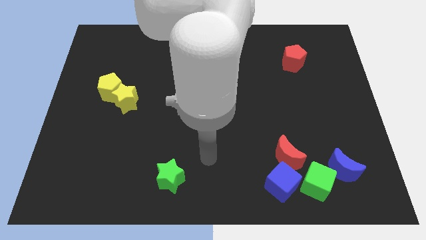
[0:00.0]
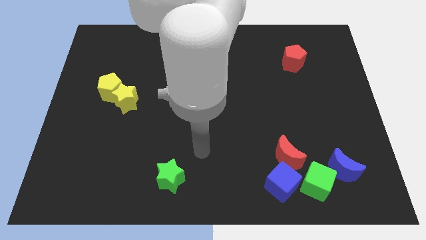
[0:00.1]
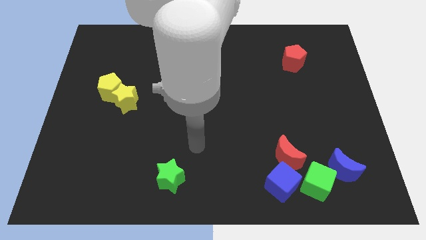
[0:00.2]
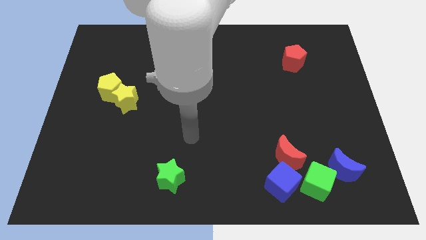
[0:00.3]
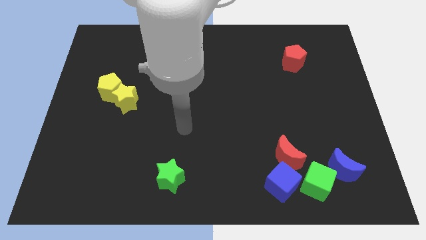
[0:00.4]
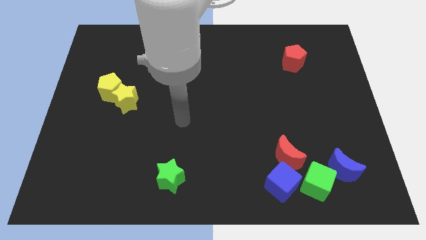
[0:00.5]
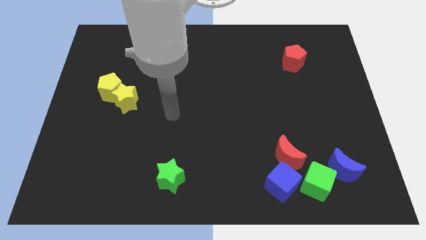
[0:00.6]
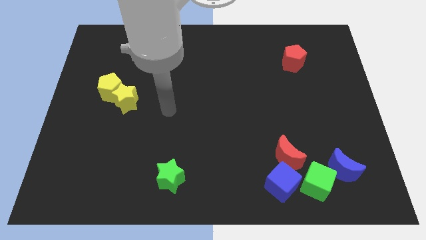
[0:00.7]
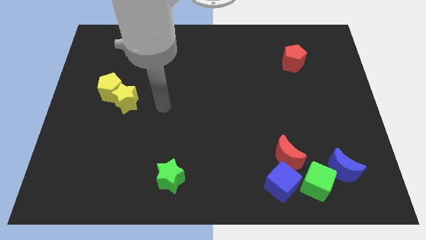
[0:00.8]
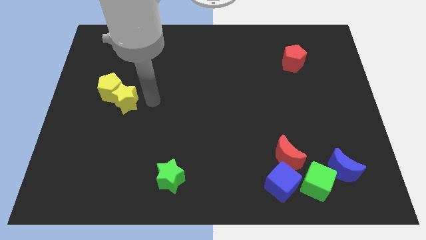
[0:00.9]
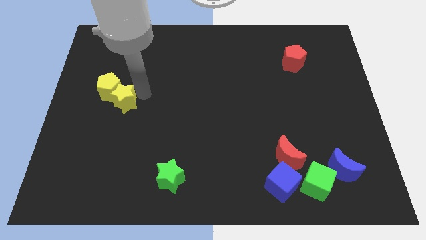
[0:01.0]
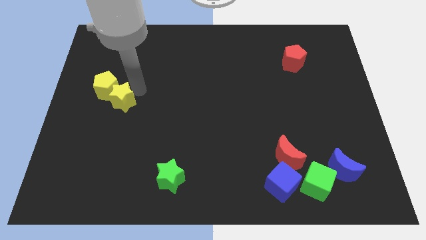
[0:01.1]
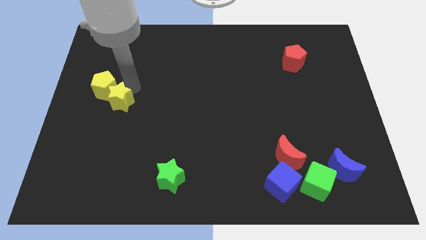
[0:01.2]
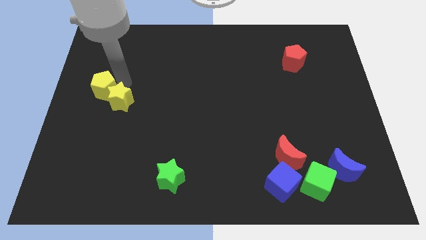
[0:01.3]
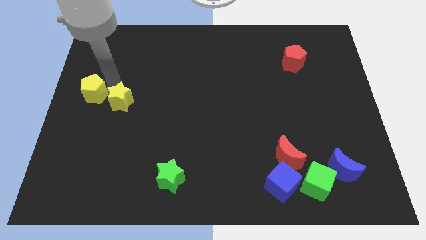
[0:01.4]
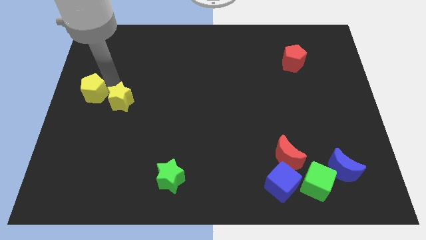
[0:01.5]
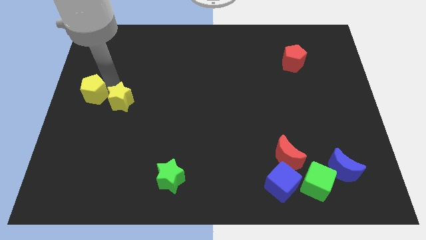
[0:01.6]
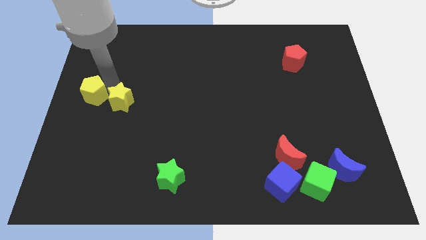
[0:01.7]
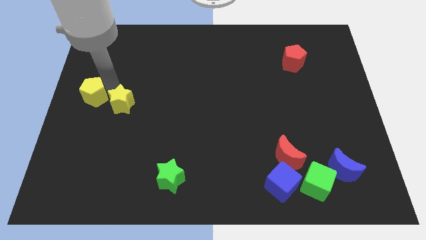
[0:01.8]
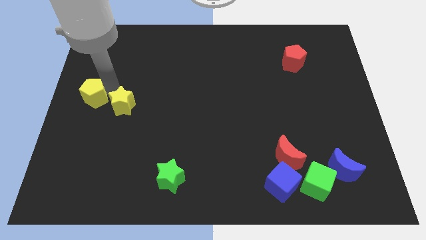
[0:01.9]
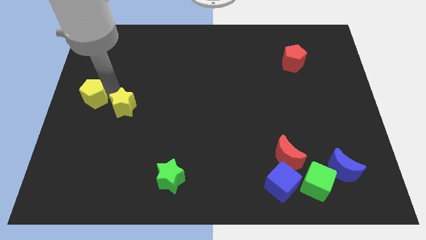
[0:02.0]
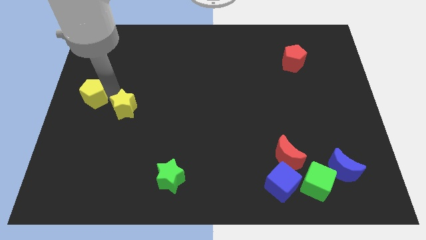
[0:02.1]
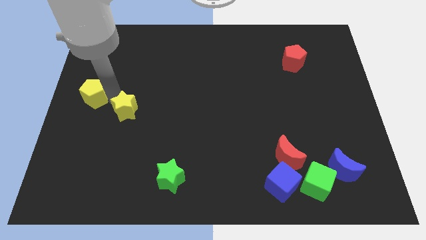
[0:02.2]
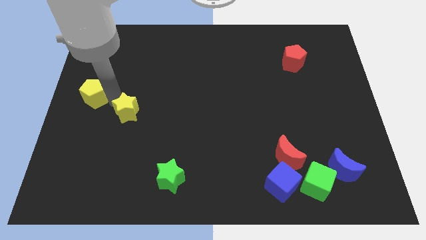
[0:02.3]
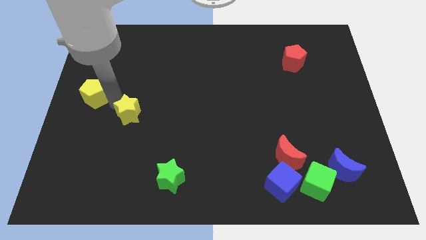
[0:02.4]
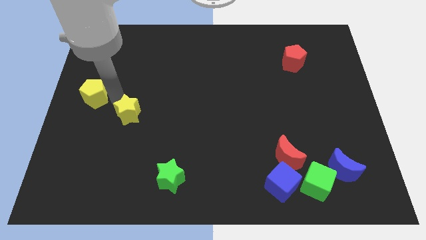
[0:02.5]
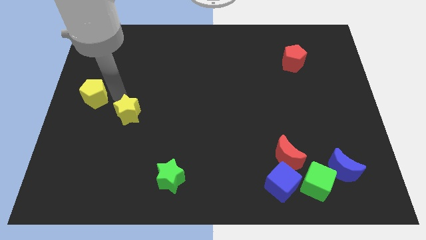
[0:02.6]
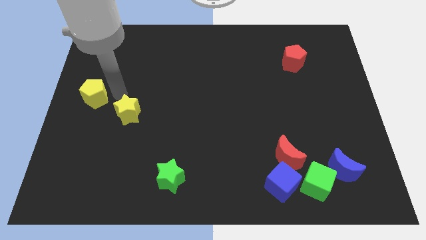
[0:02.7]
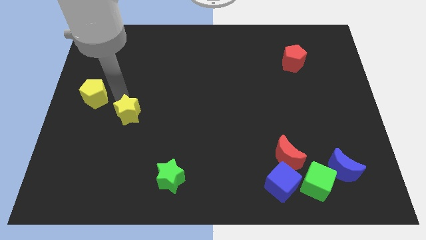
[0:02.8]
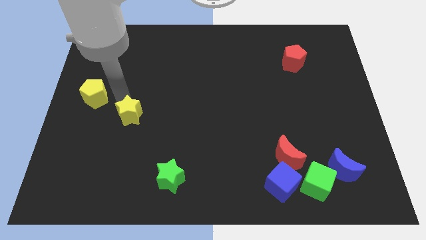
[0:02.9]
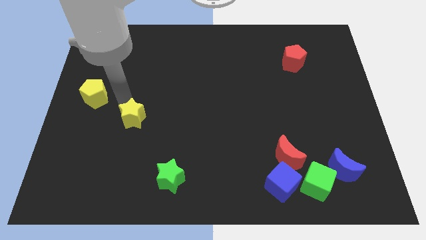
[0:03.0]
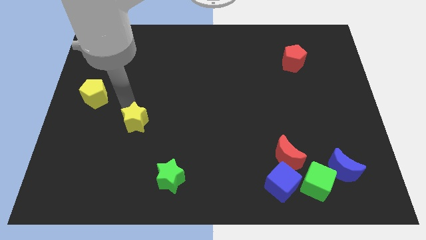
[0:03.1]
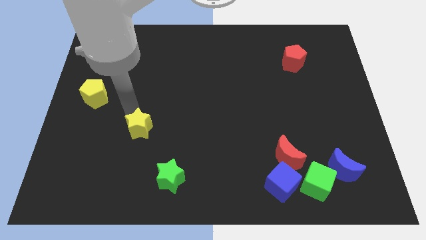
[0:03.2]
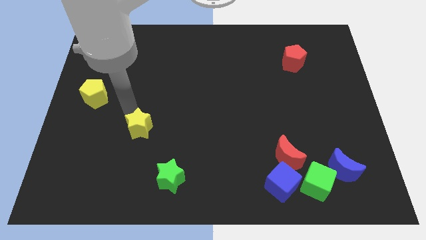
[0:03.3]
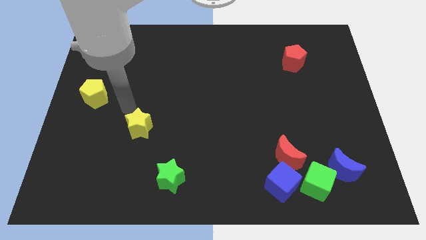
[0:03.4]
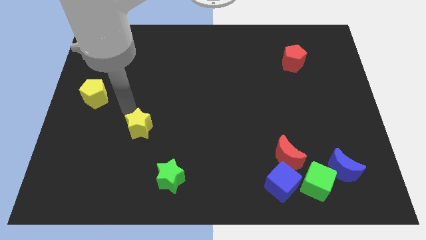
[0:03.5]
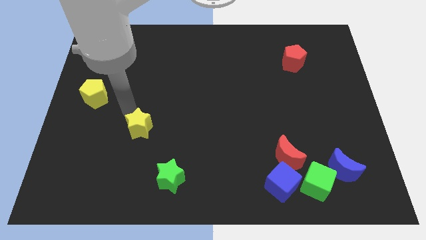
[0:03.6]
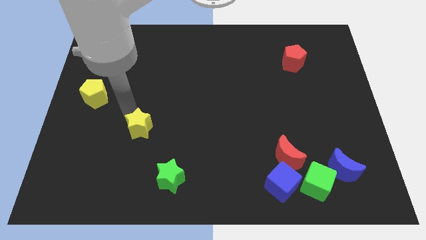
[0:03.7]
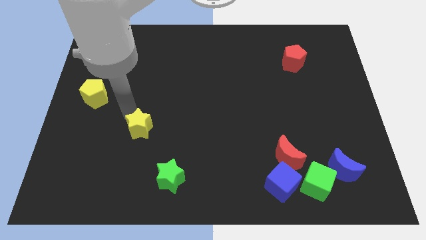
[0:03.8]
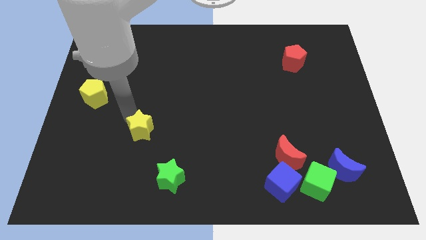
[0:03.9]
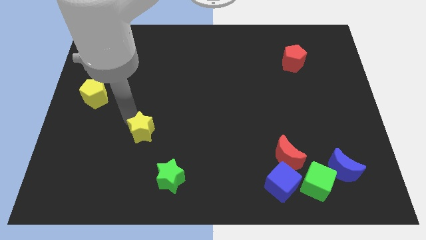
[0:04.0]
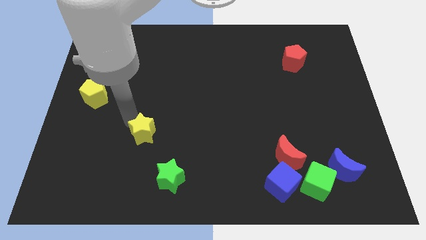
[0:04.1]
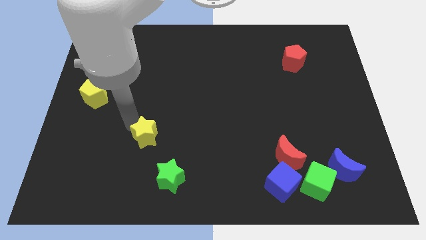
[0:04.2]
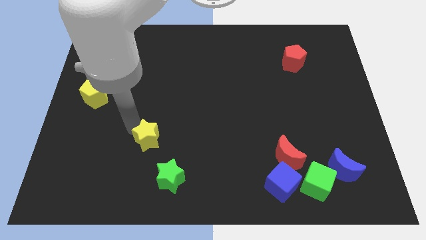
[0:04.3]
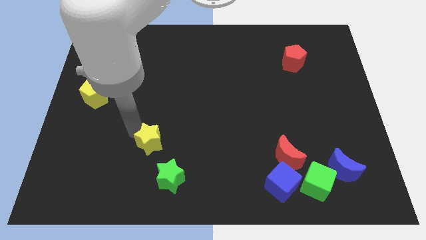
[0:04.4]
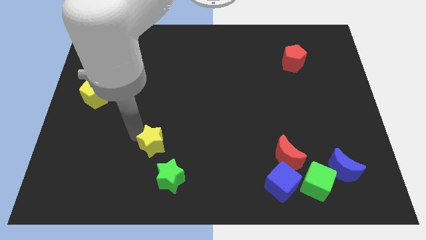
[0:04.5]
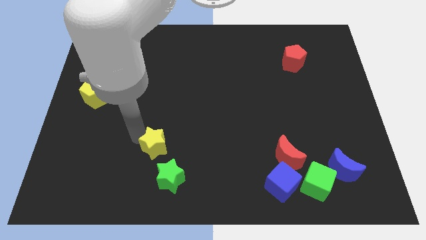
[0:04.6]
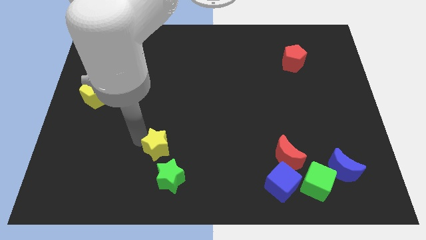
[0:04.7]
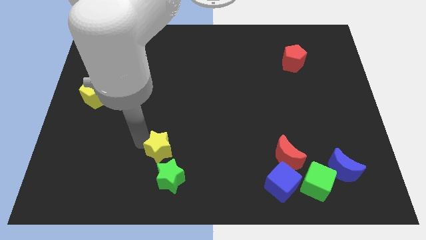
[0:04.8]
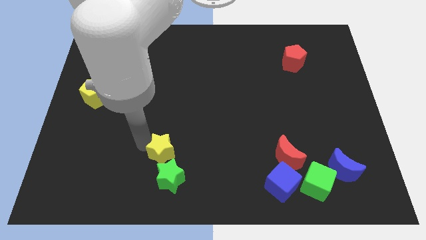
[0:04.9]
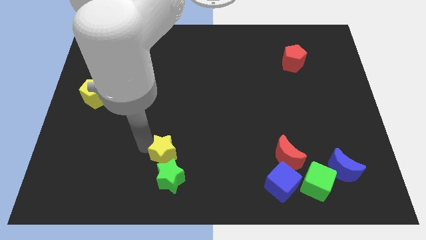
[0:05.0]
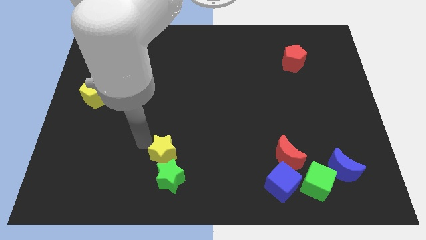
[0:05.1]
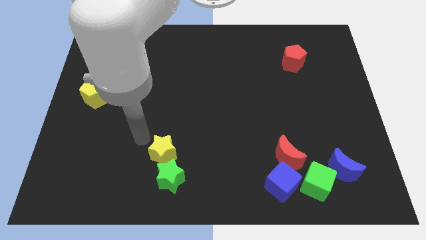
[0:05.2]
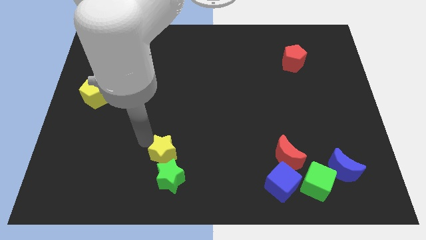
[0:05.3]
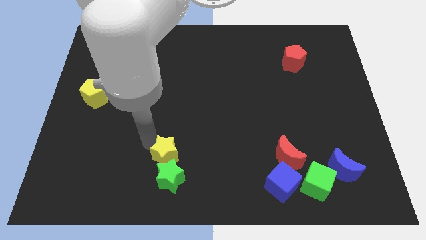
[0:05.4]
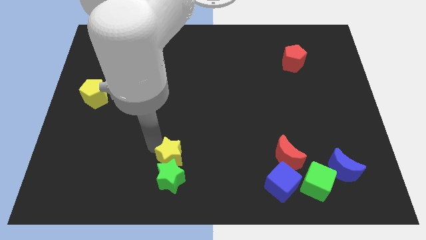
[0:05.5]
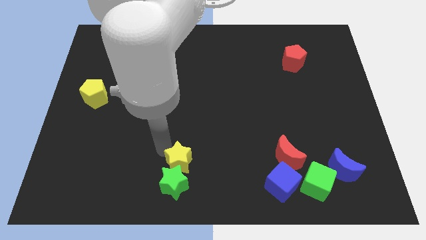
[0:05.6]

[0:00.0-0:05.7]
move the yellow star to the bottom

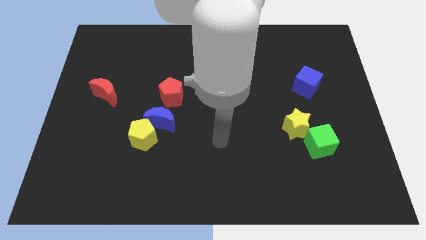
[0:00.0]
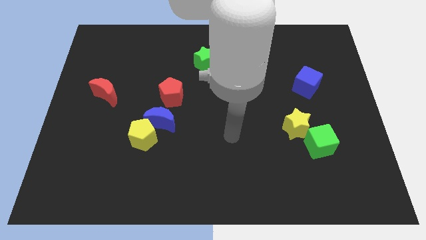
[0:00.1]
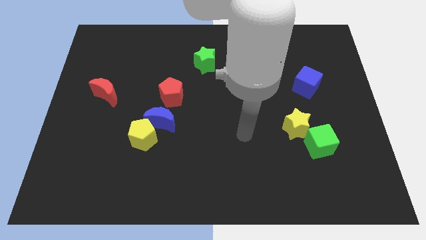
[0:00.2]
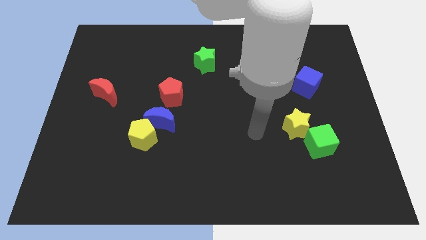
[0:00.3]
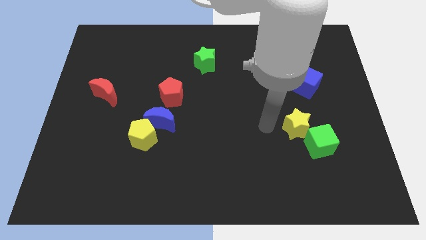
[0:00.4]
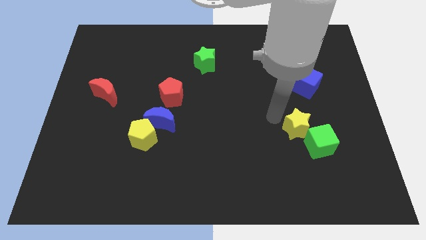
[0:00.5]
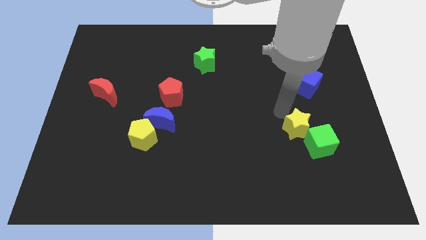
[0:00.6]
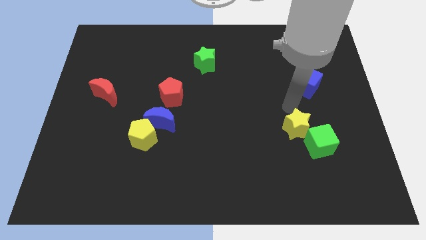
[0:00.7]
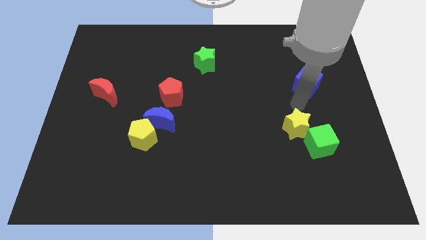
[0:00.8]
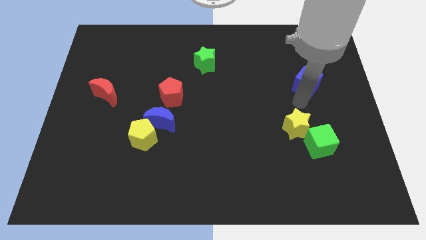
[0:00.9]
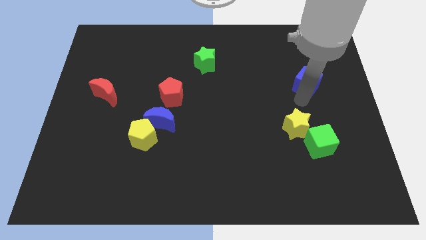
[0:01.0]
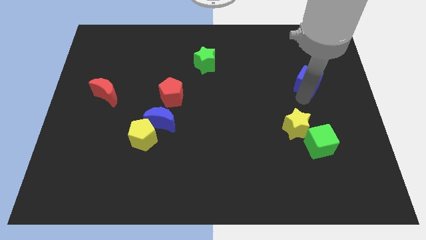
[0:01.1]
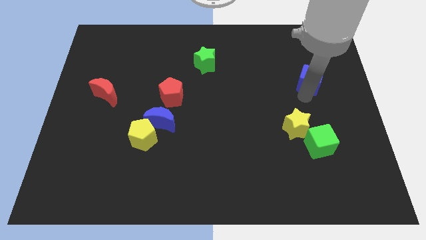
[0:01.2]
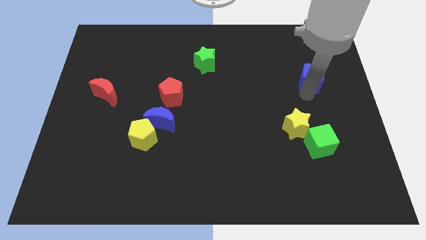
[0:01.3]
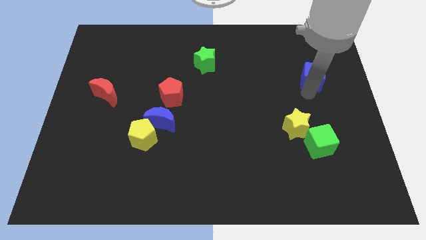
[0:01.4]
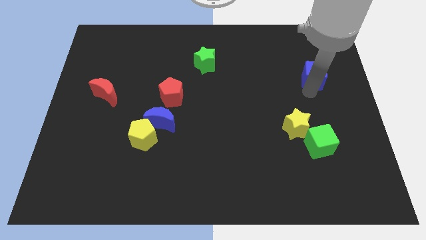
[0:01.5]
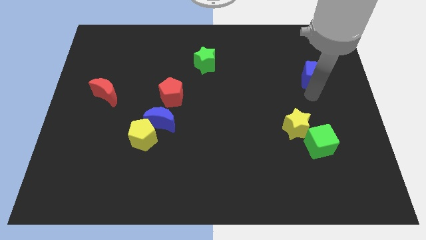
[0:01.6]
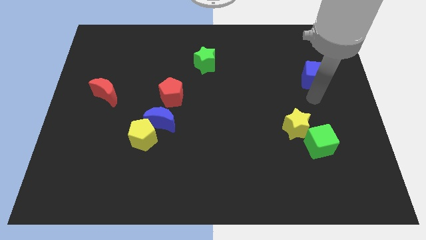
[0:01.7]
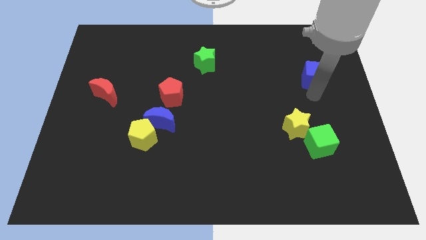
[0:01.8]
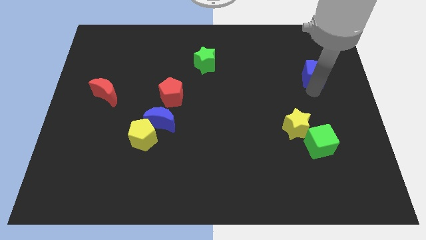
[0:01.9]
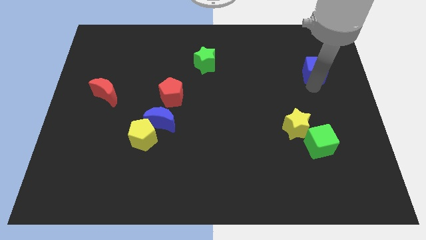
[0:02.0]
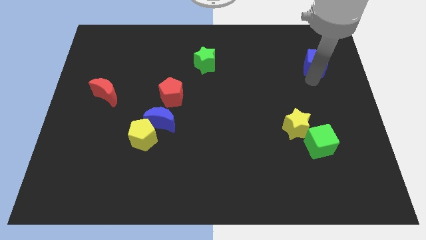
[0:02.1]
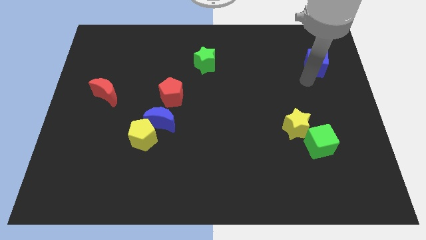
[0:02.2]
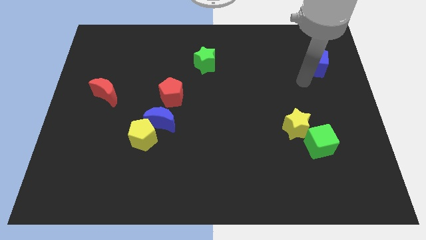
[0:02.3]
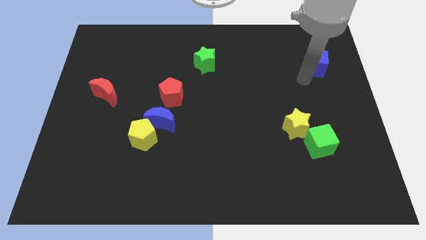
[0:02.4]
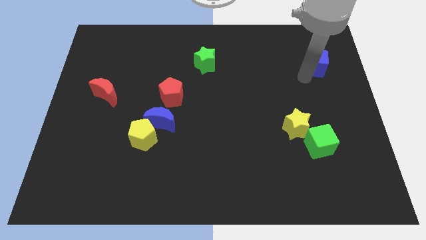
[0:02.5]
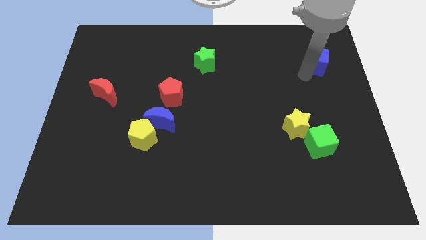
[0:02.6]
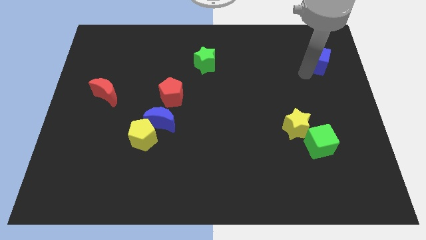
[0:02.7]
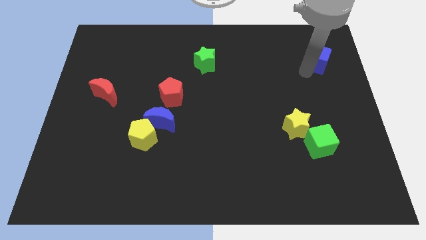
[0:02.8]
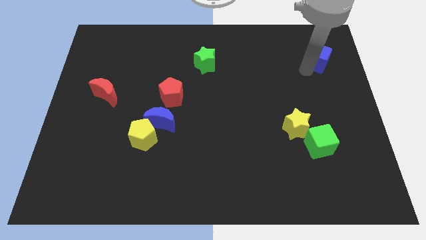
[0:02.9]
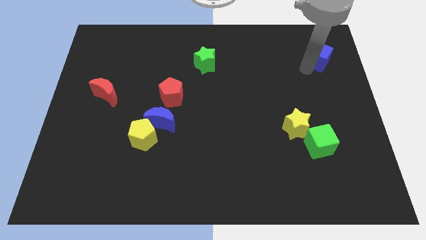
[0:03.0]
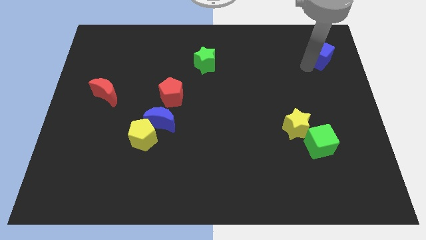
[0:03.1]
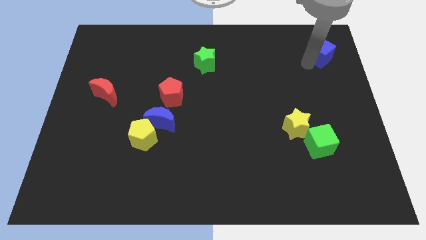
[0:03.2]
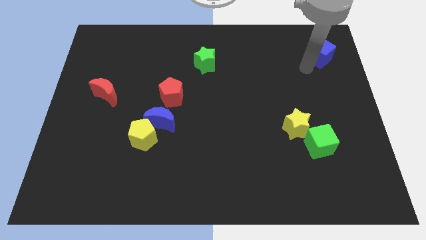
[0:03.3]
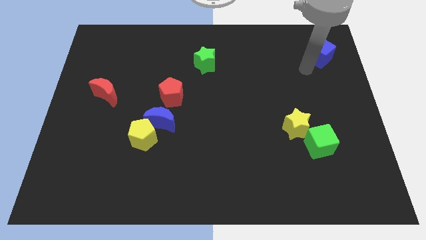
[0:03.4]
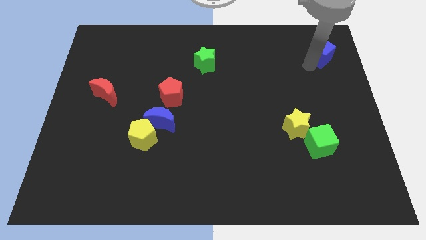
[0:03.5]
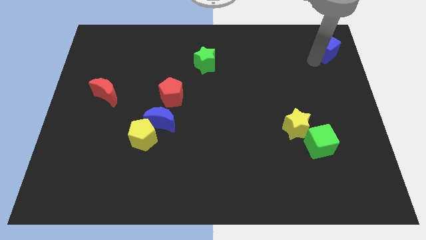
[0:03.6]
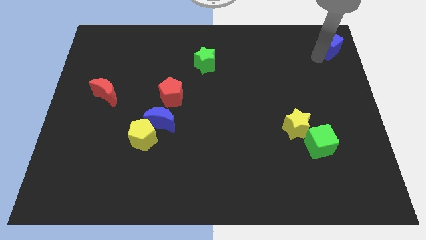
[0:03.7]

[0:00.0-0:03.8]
put the blue cube to the top right
